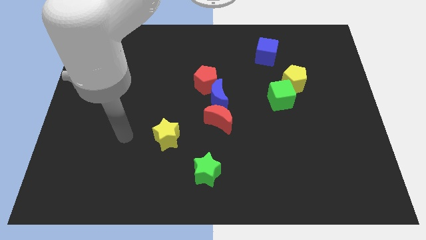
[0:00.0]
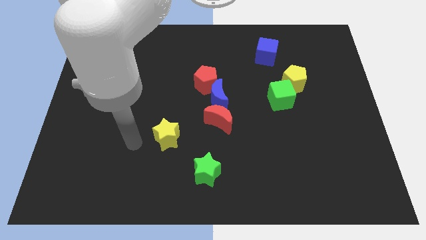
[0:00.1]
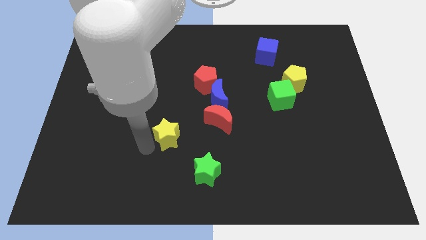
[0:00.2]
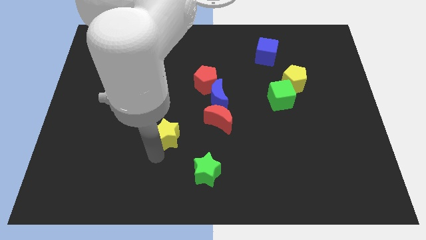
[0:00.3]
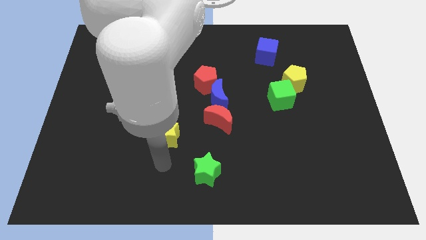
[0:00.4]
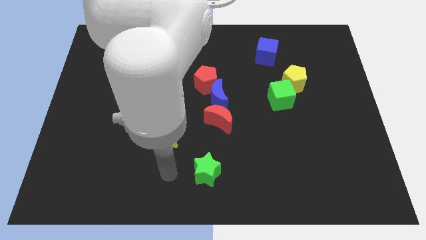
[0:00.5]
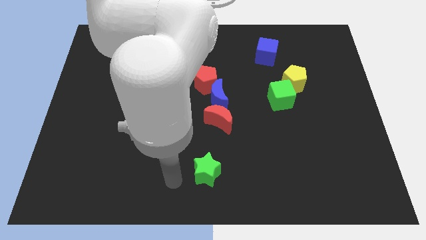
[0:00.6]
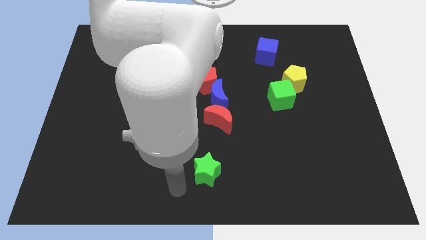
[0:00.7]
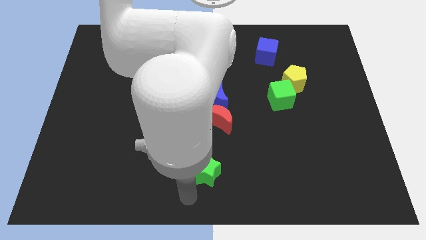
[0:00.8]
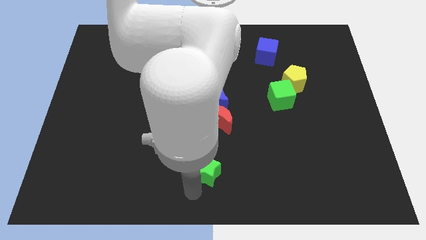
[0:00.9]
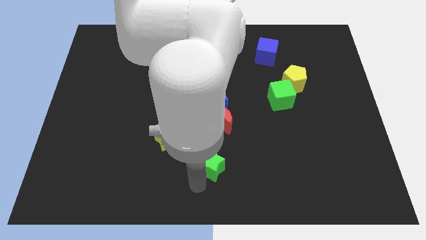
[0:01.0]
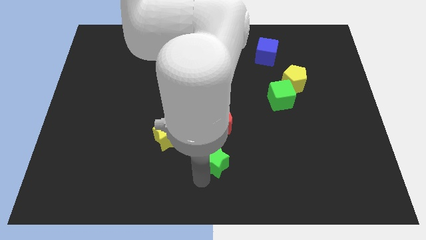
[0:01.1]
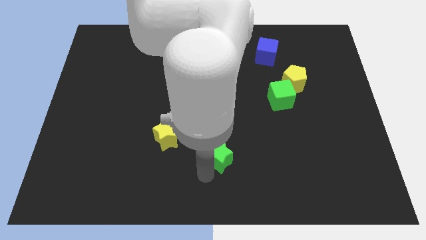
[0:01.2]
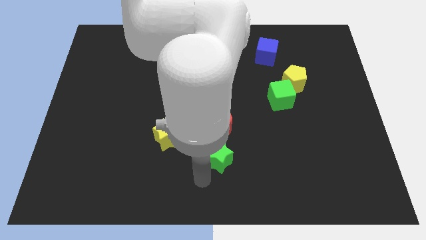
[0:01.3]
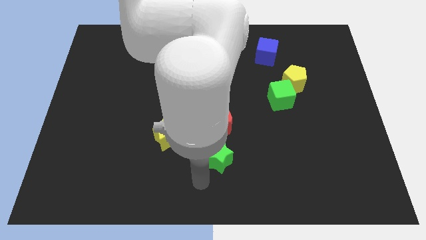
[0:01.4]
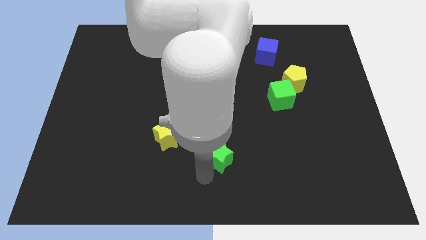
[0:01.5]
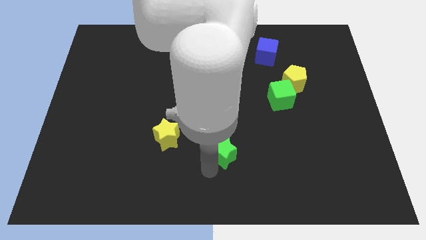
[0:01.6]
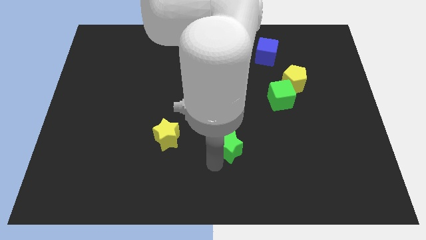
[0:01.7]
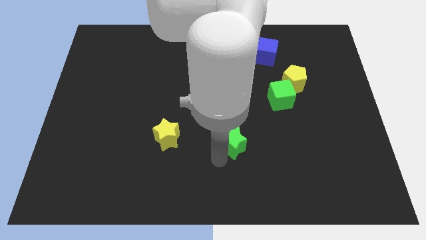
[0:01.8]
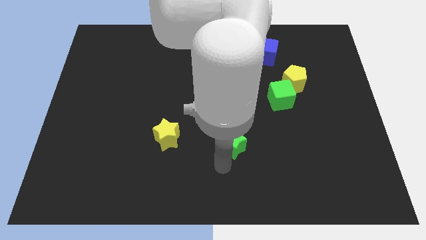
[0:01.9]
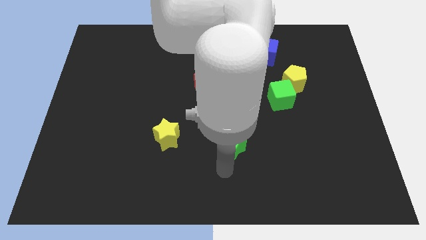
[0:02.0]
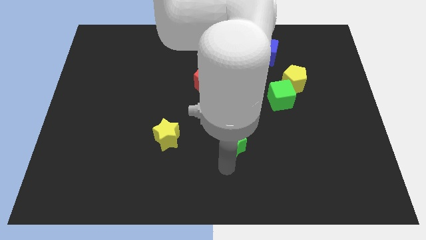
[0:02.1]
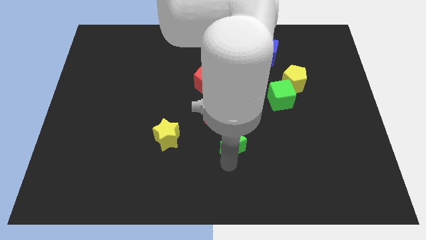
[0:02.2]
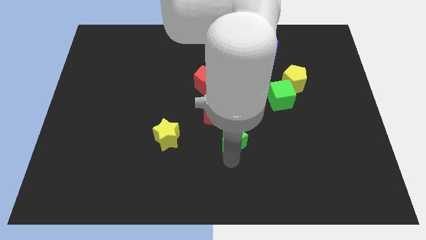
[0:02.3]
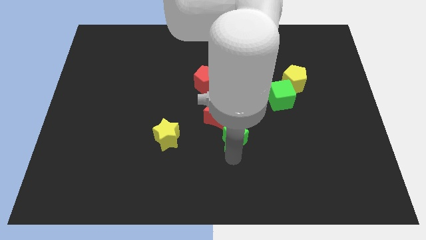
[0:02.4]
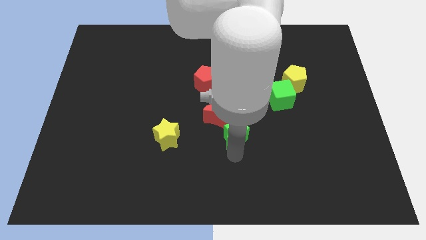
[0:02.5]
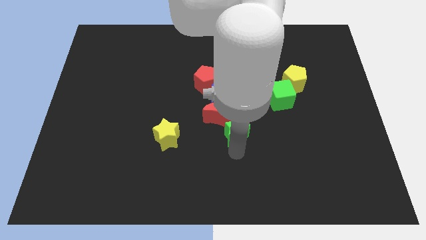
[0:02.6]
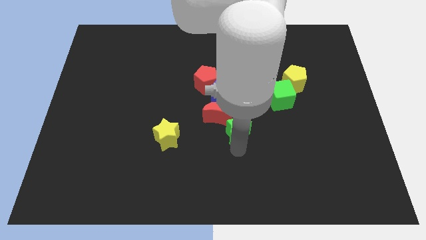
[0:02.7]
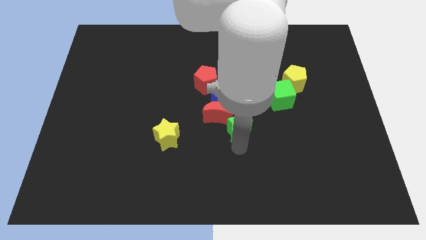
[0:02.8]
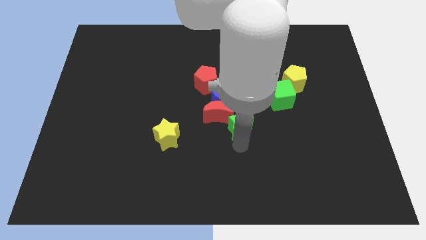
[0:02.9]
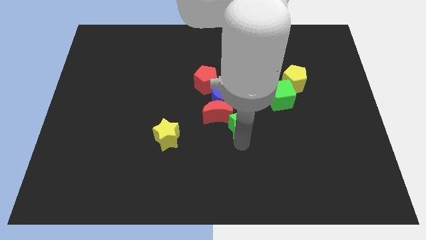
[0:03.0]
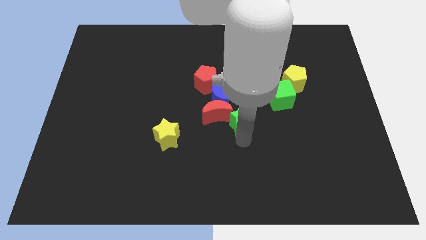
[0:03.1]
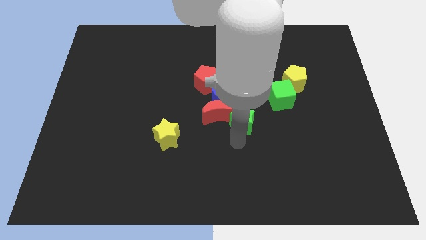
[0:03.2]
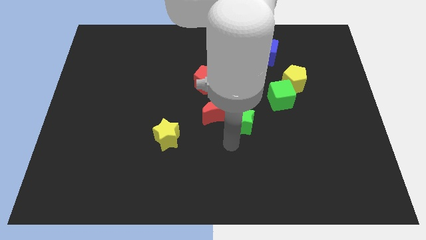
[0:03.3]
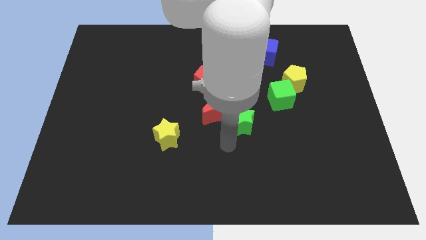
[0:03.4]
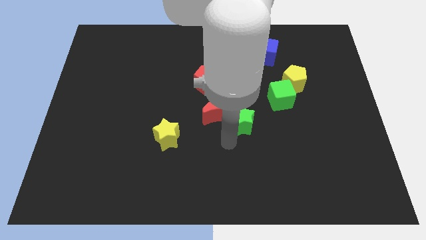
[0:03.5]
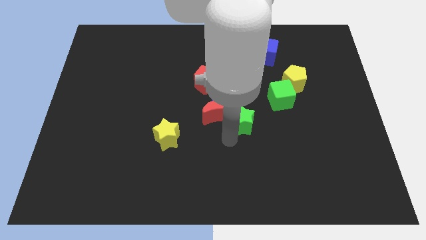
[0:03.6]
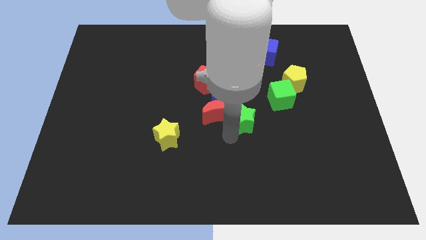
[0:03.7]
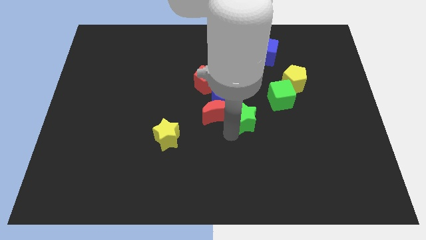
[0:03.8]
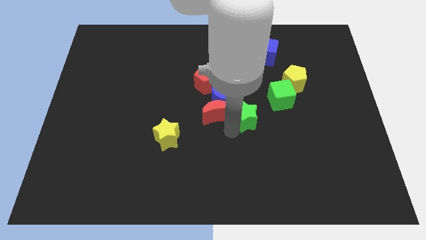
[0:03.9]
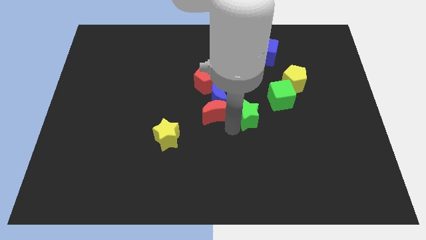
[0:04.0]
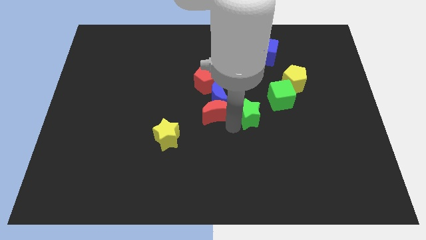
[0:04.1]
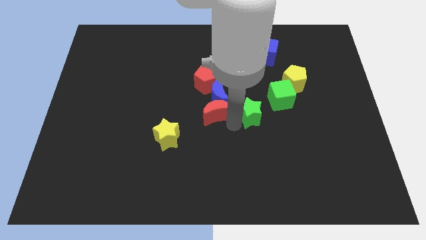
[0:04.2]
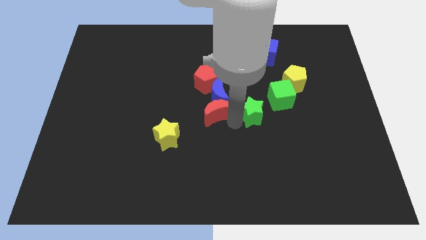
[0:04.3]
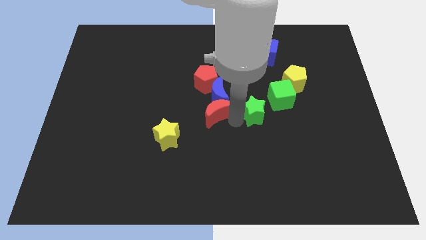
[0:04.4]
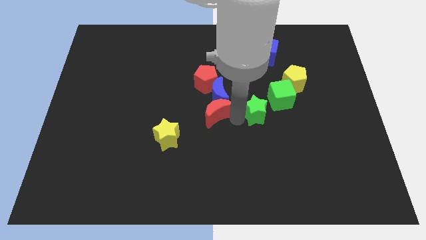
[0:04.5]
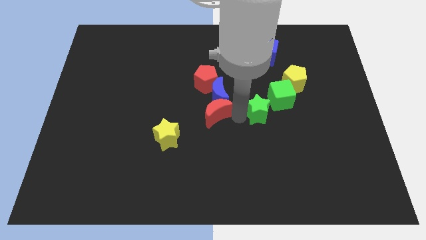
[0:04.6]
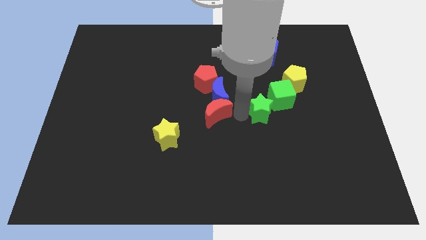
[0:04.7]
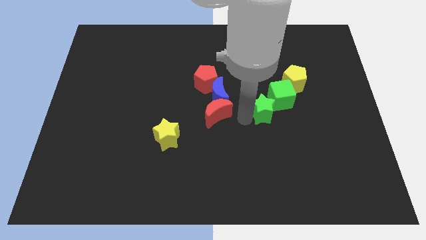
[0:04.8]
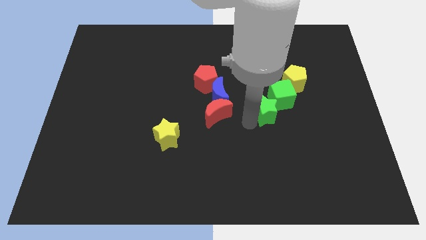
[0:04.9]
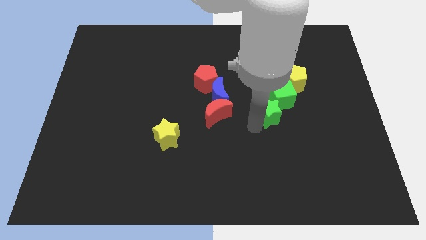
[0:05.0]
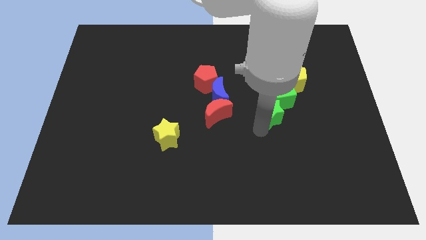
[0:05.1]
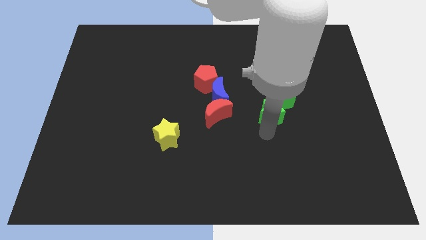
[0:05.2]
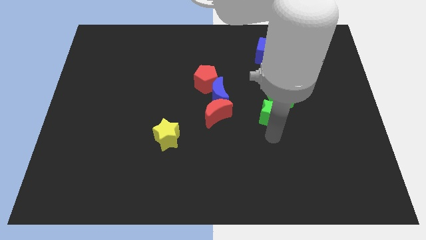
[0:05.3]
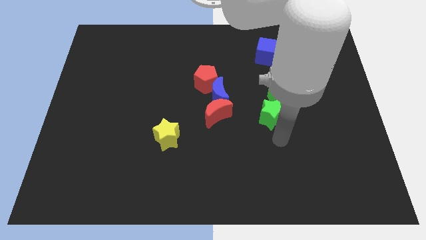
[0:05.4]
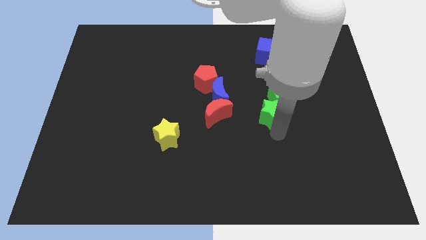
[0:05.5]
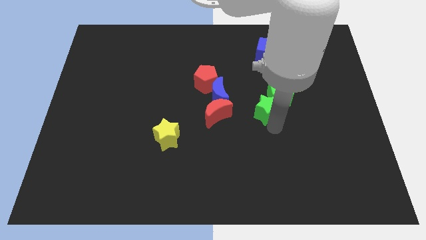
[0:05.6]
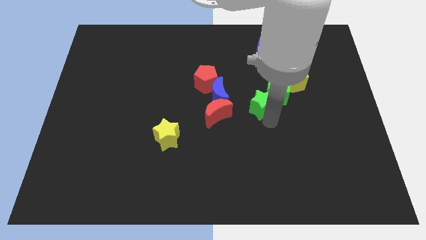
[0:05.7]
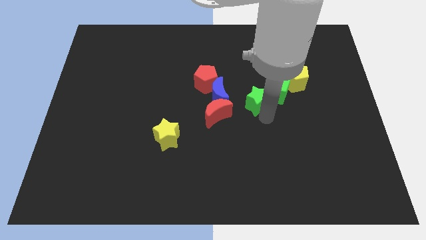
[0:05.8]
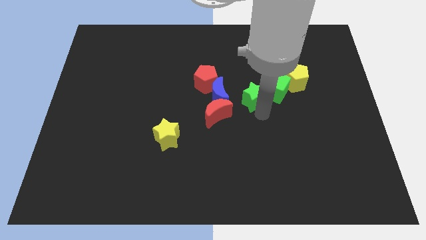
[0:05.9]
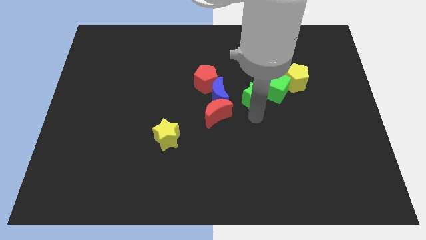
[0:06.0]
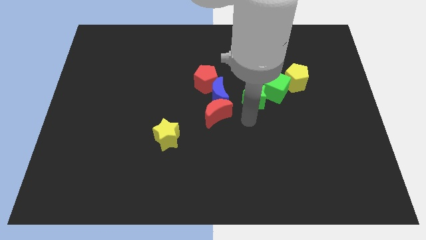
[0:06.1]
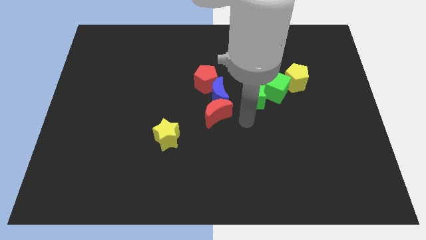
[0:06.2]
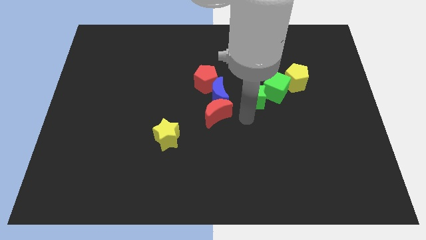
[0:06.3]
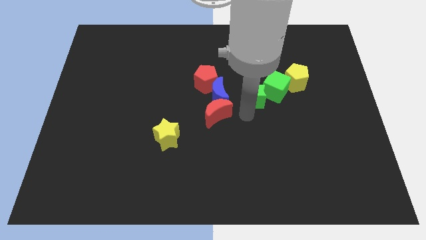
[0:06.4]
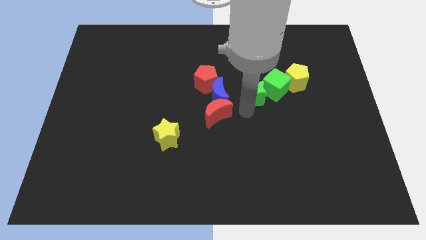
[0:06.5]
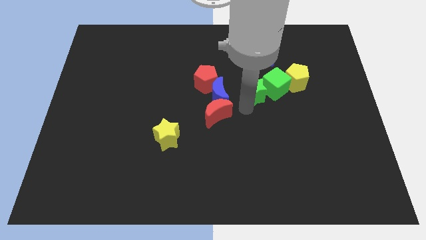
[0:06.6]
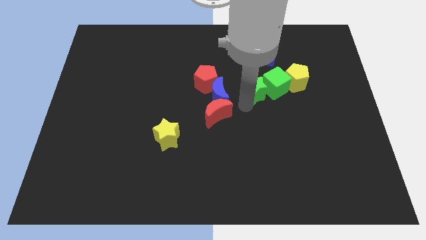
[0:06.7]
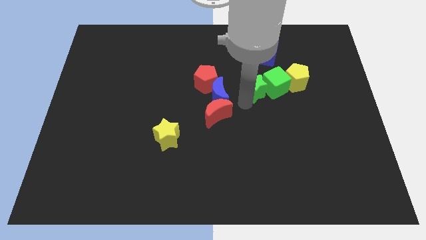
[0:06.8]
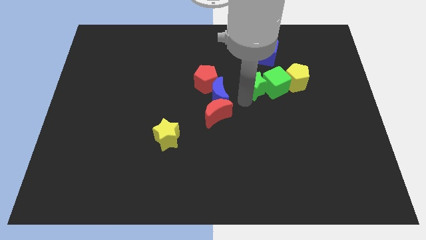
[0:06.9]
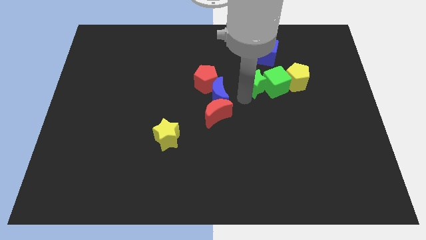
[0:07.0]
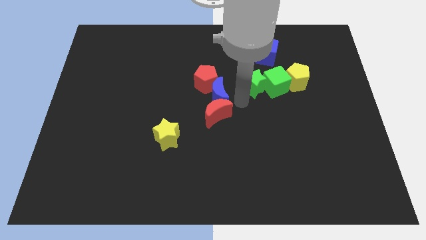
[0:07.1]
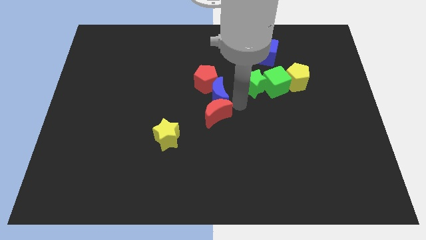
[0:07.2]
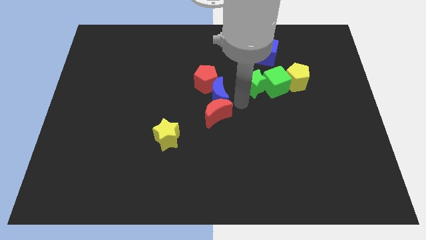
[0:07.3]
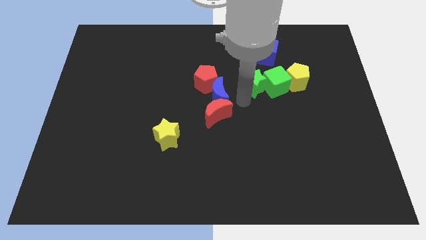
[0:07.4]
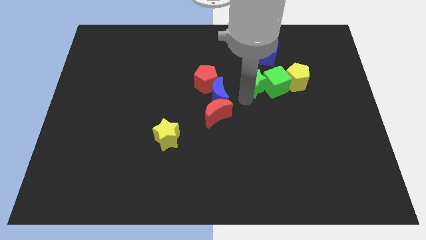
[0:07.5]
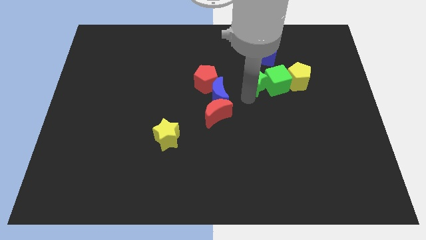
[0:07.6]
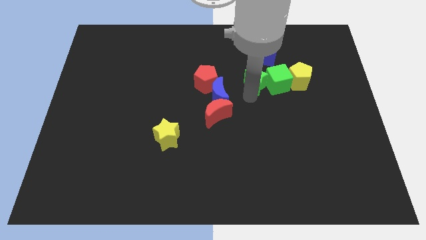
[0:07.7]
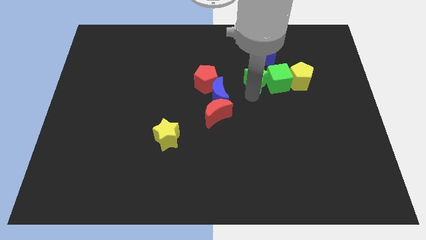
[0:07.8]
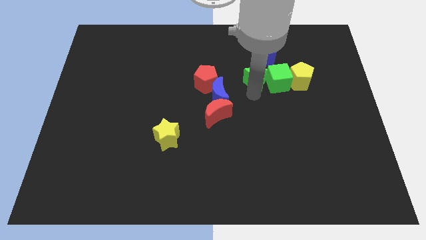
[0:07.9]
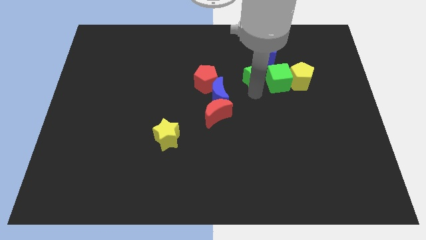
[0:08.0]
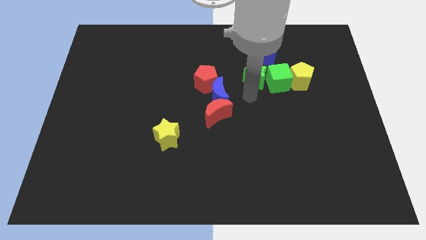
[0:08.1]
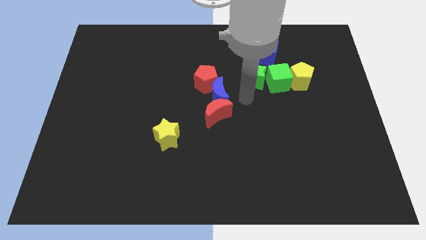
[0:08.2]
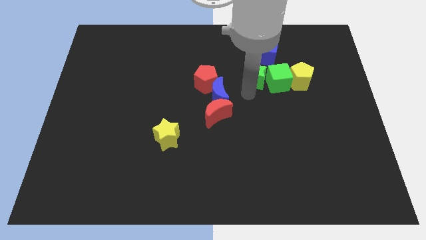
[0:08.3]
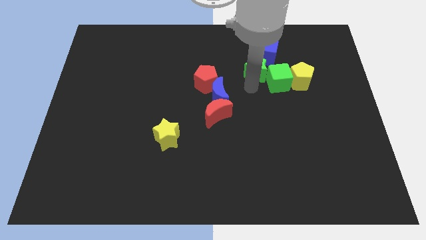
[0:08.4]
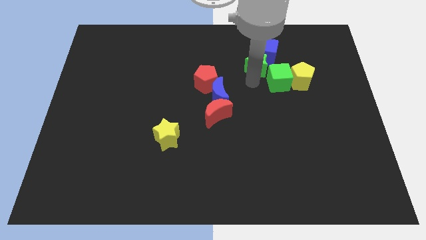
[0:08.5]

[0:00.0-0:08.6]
push the green star close to the blue cube
